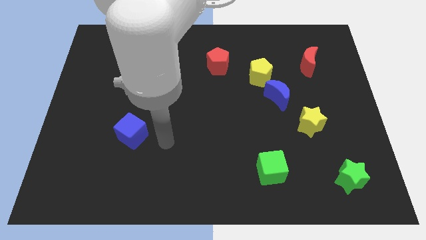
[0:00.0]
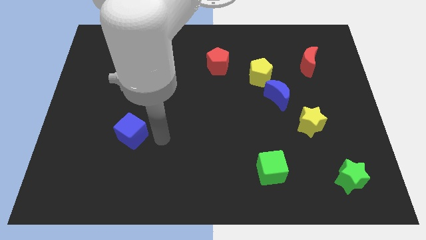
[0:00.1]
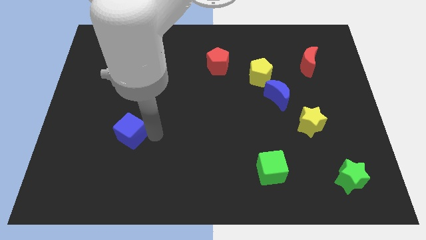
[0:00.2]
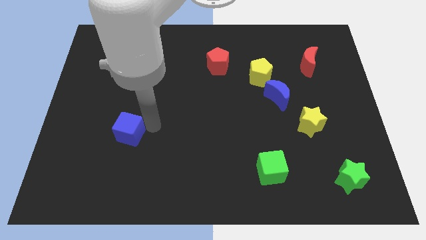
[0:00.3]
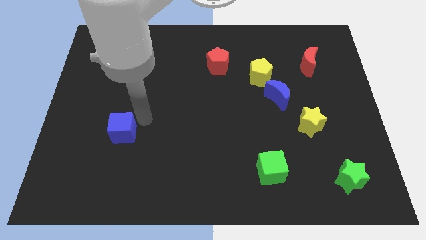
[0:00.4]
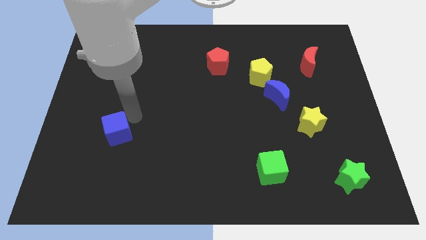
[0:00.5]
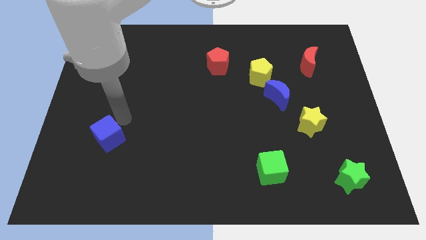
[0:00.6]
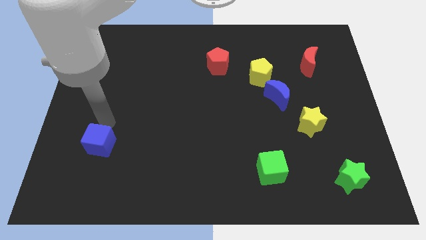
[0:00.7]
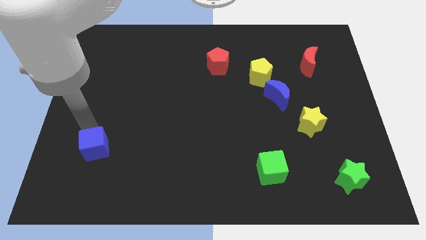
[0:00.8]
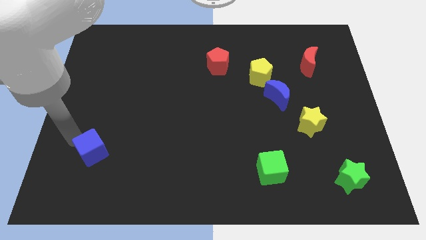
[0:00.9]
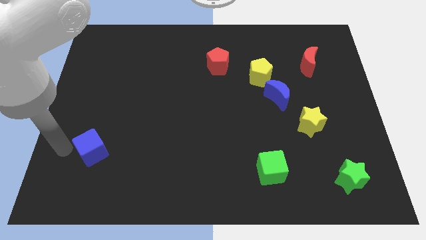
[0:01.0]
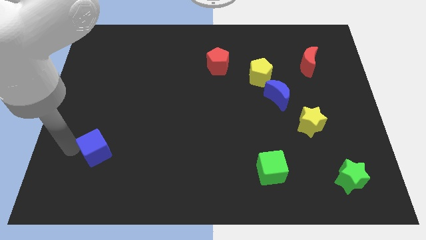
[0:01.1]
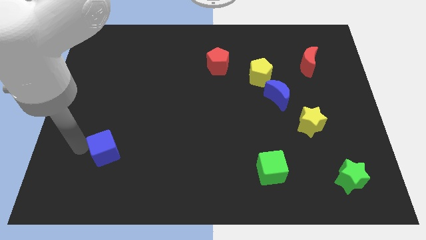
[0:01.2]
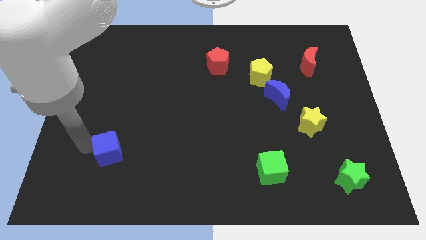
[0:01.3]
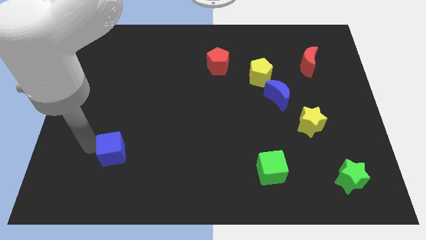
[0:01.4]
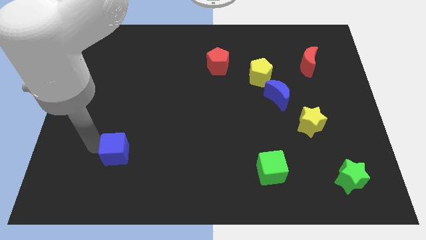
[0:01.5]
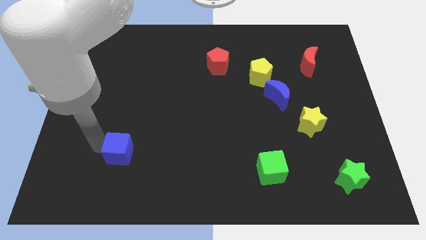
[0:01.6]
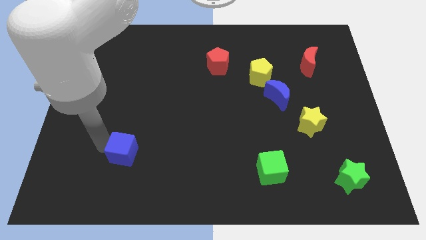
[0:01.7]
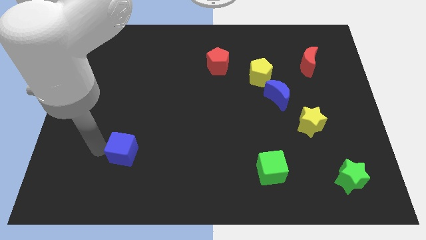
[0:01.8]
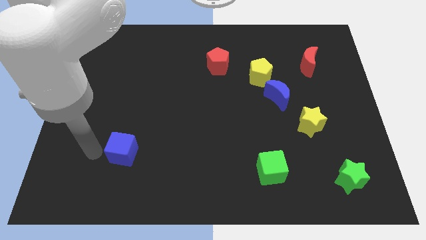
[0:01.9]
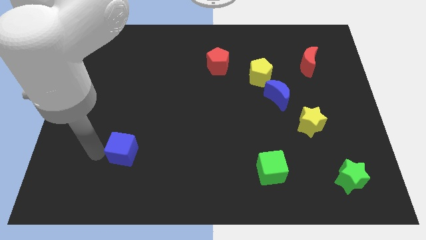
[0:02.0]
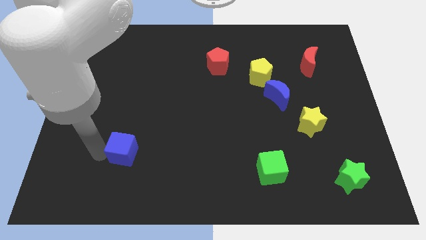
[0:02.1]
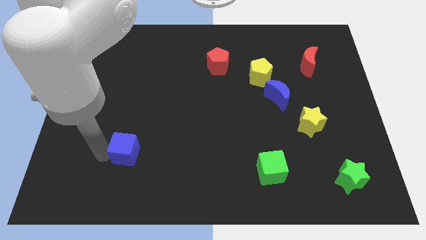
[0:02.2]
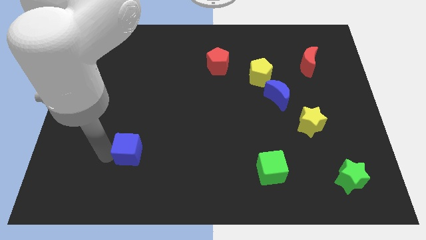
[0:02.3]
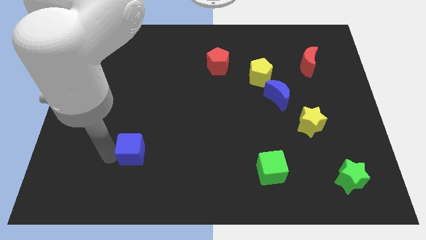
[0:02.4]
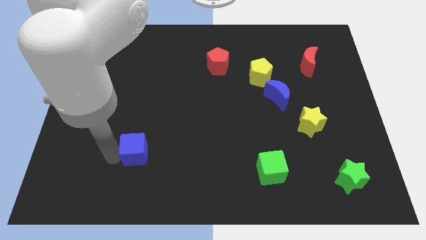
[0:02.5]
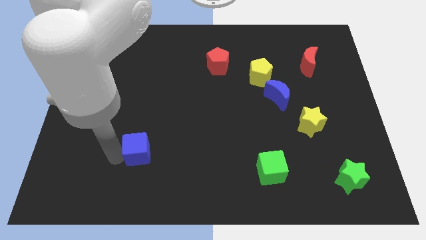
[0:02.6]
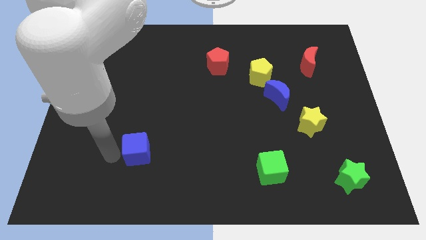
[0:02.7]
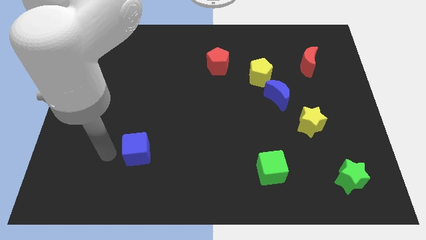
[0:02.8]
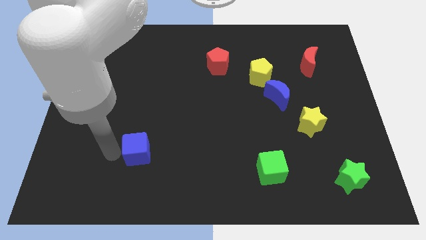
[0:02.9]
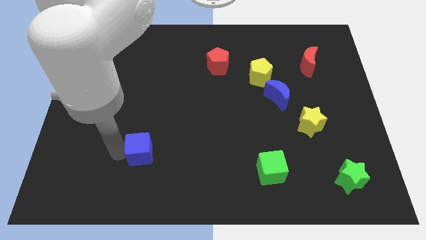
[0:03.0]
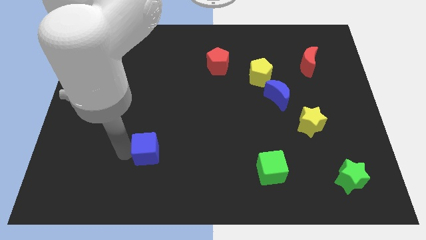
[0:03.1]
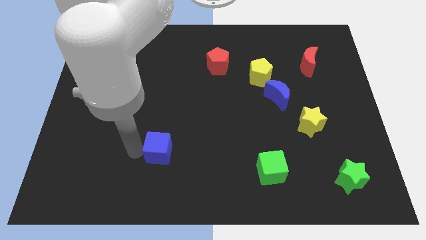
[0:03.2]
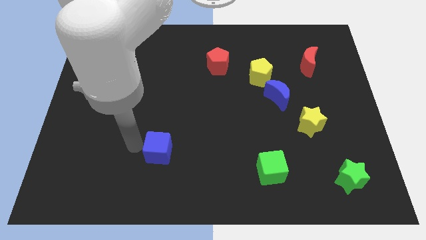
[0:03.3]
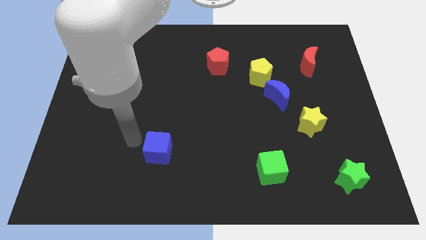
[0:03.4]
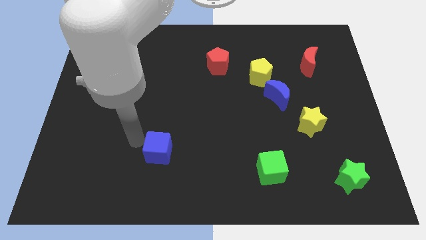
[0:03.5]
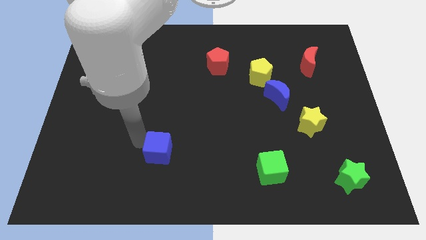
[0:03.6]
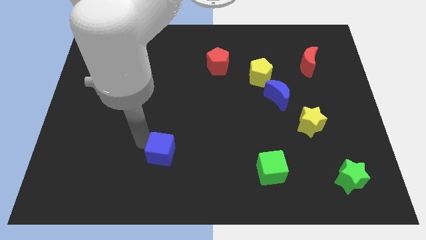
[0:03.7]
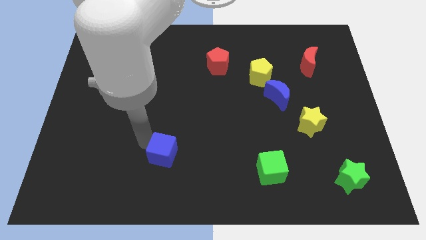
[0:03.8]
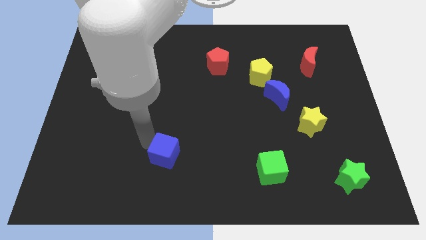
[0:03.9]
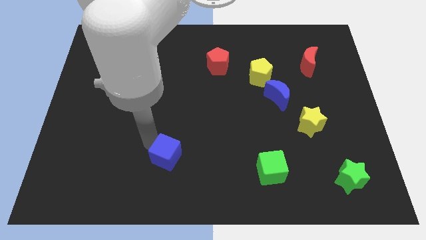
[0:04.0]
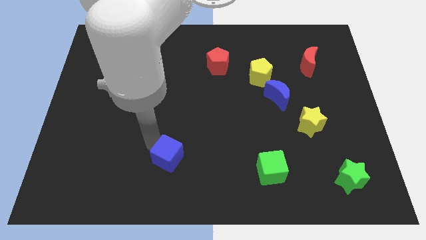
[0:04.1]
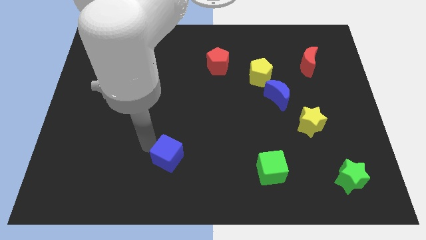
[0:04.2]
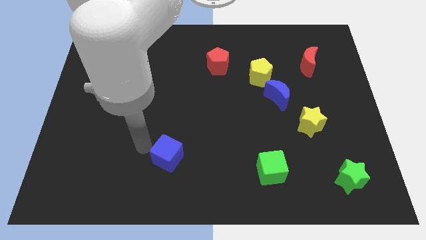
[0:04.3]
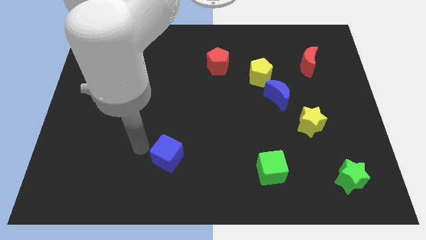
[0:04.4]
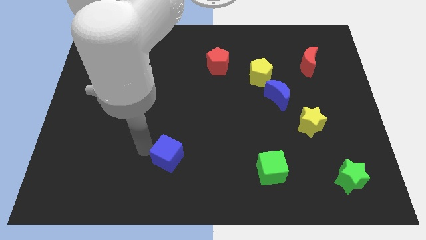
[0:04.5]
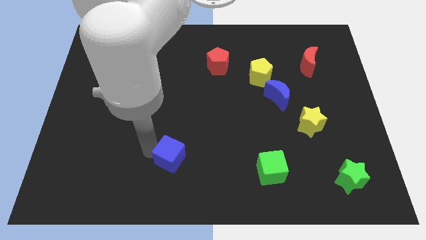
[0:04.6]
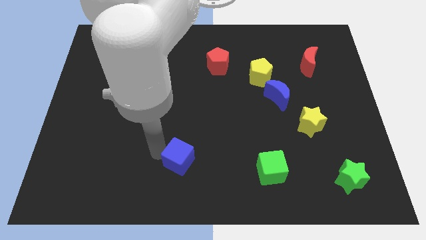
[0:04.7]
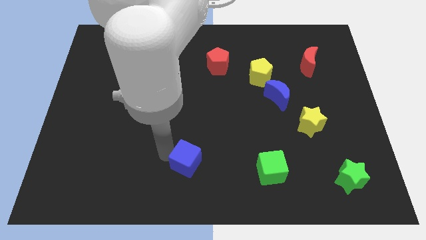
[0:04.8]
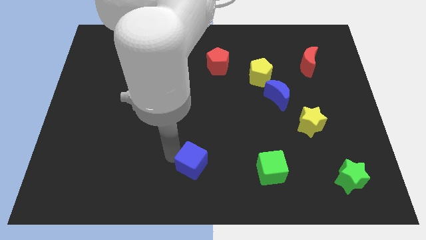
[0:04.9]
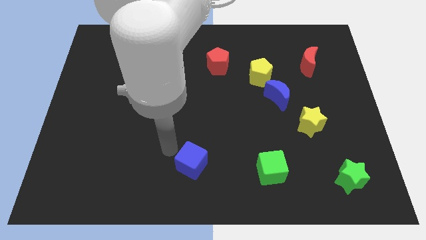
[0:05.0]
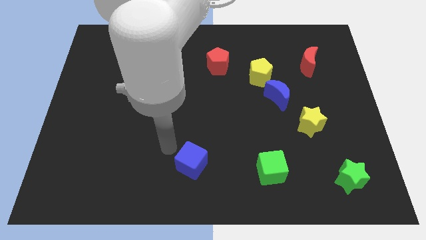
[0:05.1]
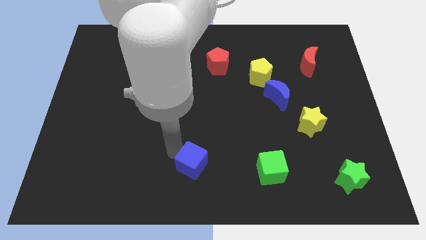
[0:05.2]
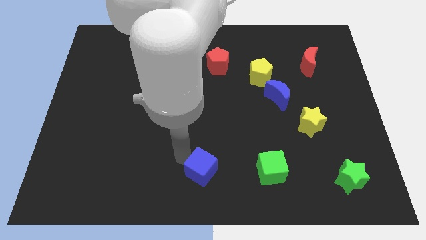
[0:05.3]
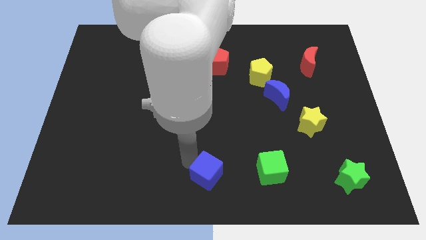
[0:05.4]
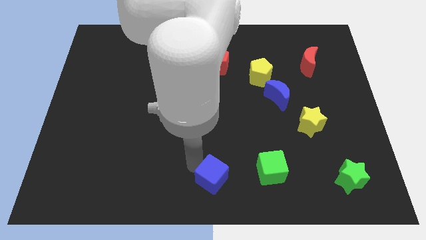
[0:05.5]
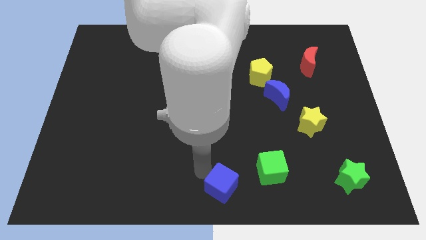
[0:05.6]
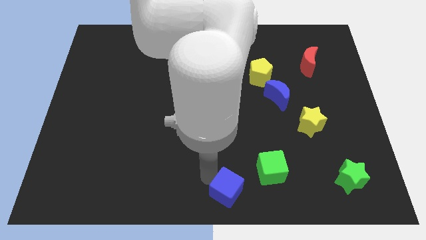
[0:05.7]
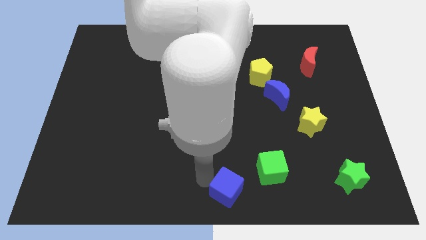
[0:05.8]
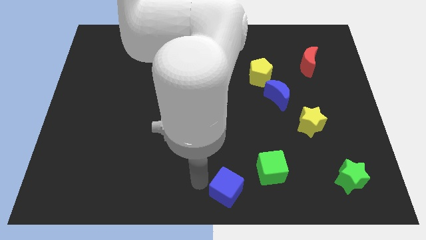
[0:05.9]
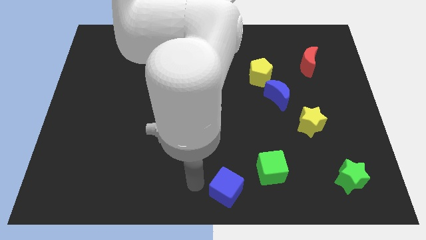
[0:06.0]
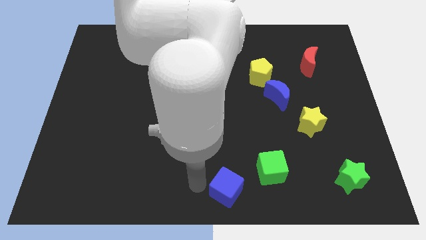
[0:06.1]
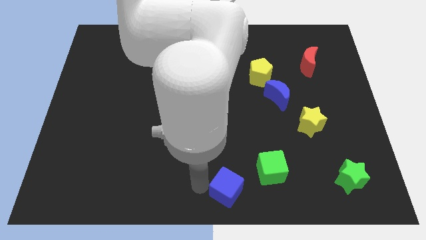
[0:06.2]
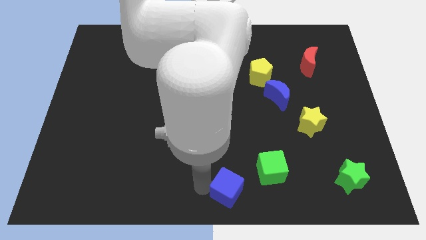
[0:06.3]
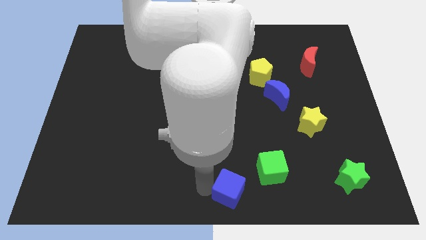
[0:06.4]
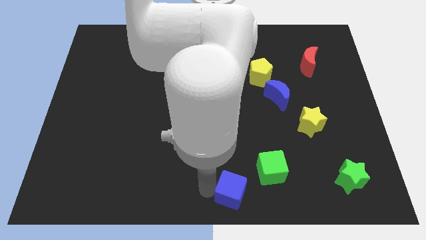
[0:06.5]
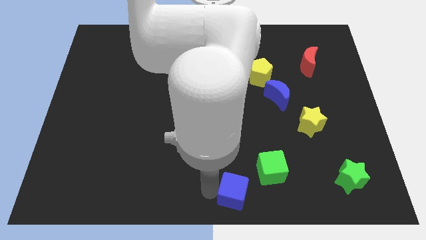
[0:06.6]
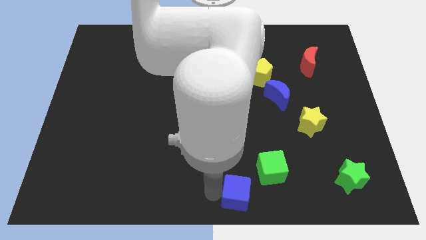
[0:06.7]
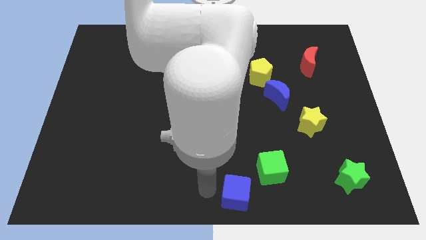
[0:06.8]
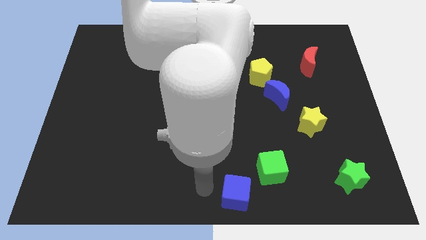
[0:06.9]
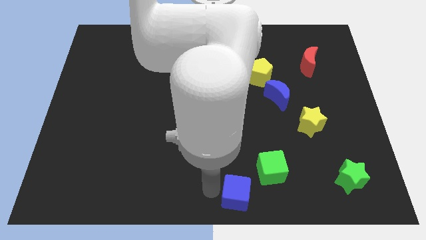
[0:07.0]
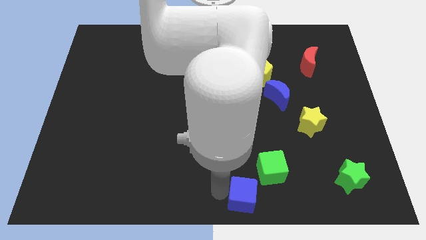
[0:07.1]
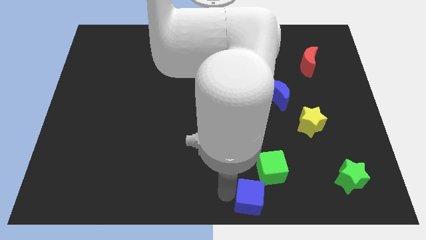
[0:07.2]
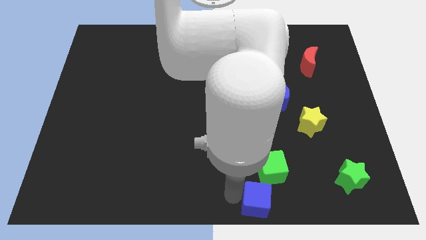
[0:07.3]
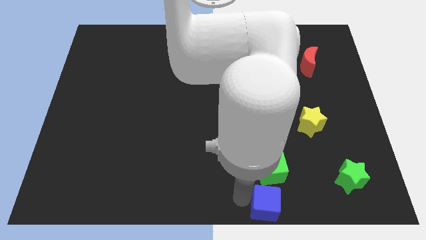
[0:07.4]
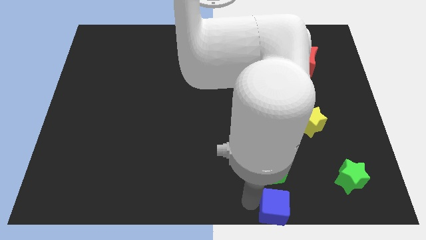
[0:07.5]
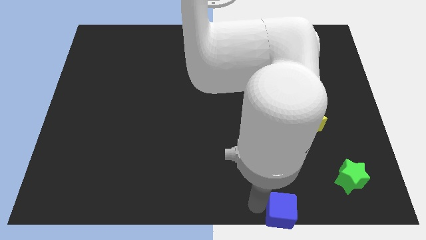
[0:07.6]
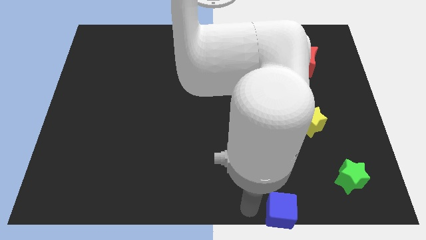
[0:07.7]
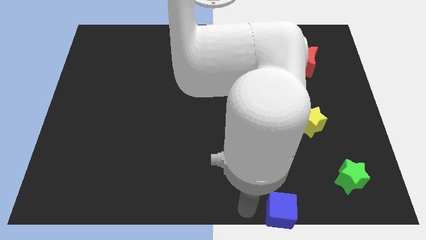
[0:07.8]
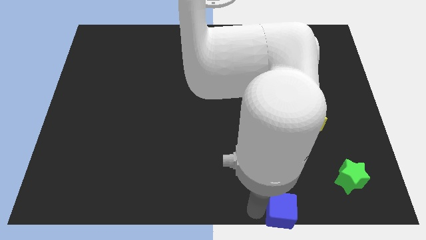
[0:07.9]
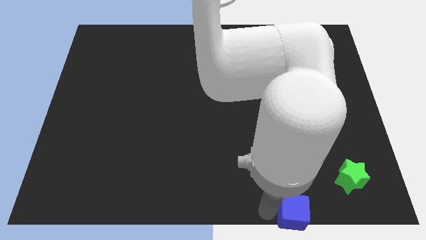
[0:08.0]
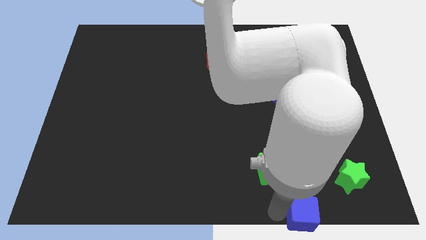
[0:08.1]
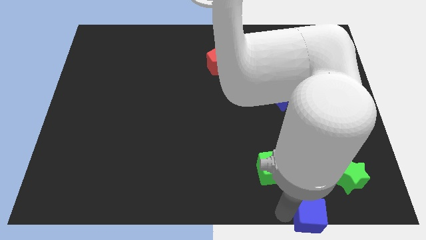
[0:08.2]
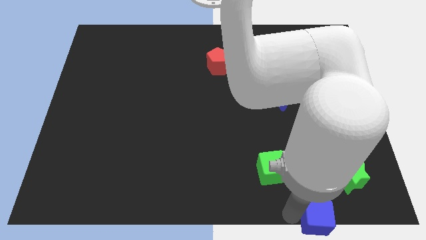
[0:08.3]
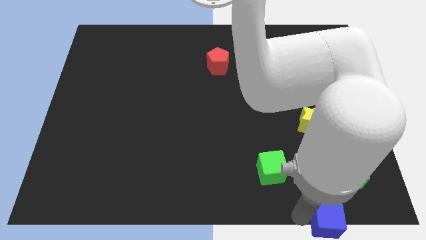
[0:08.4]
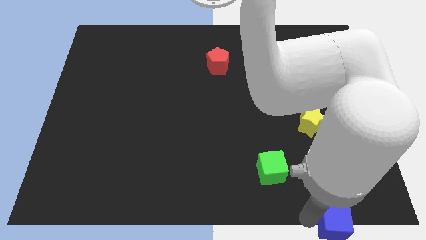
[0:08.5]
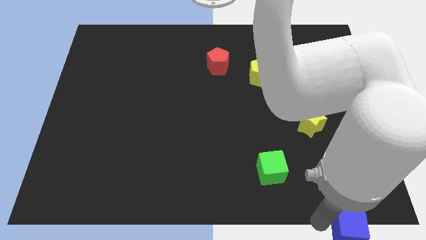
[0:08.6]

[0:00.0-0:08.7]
push the blue cube to the bottom right of the board
